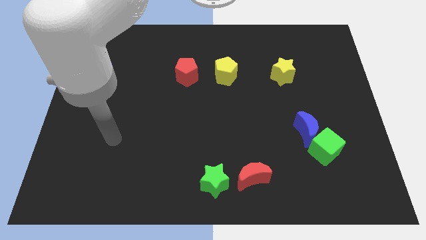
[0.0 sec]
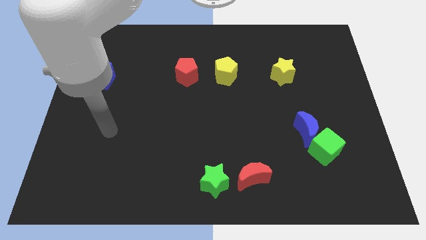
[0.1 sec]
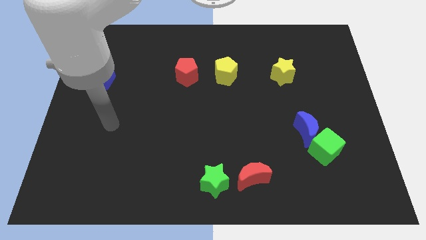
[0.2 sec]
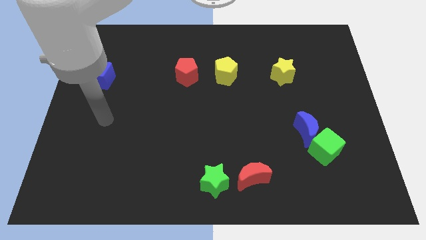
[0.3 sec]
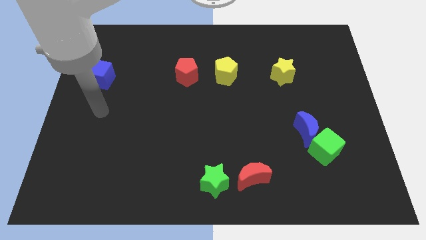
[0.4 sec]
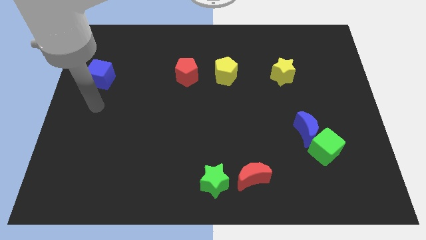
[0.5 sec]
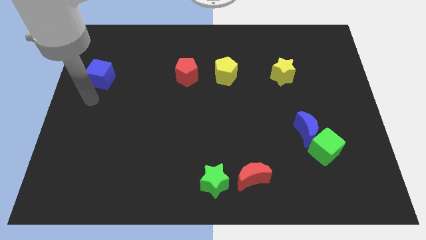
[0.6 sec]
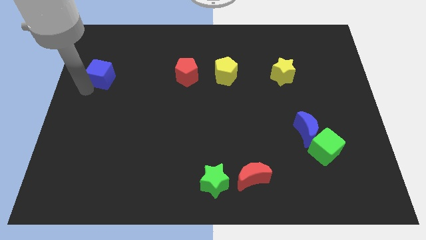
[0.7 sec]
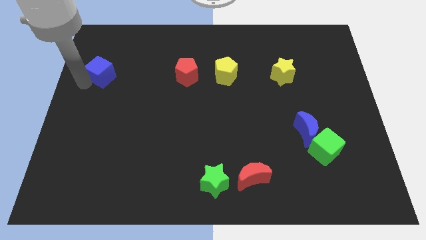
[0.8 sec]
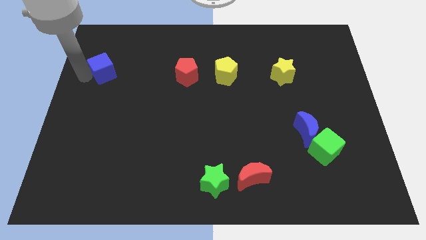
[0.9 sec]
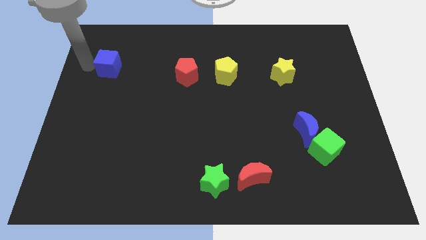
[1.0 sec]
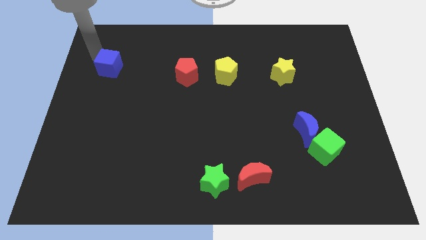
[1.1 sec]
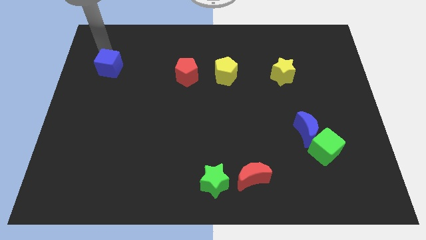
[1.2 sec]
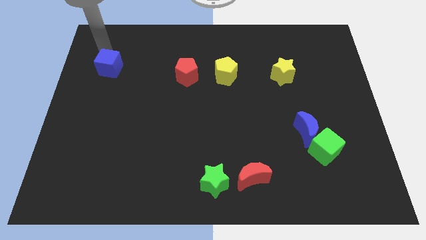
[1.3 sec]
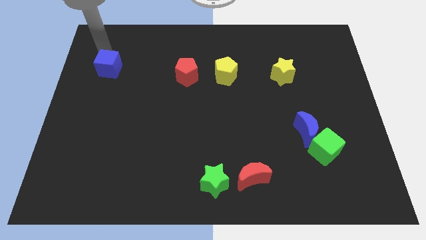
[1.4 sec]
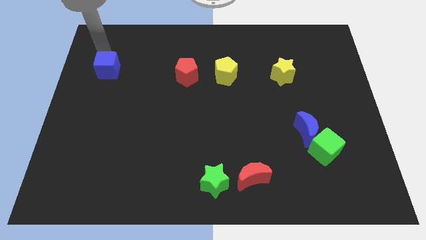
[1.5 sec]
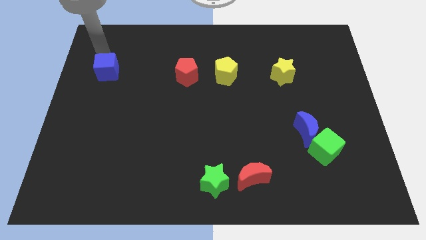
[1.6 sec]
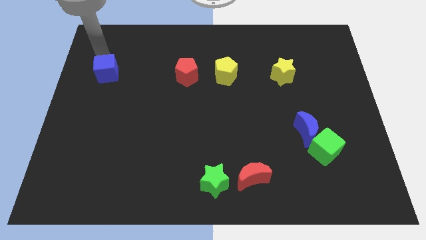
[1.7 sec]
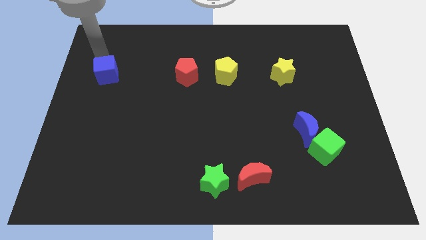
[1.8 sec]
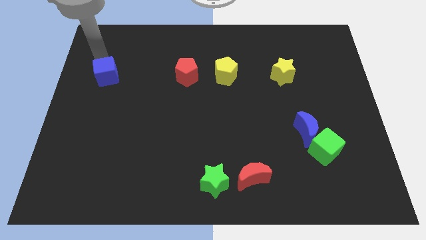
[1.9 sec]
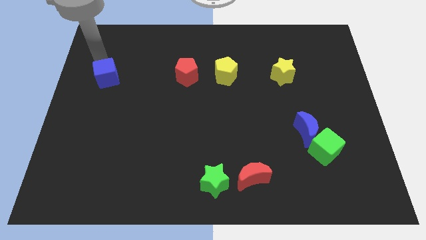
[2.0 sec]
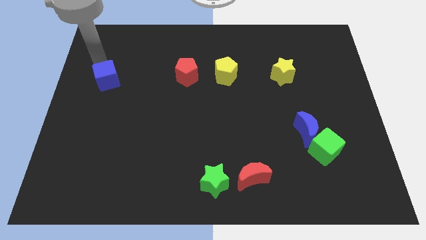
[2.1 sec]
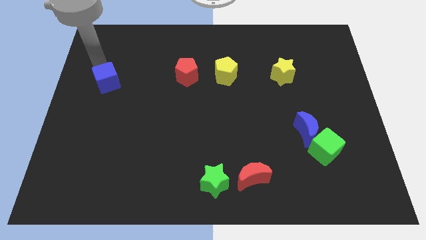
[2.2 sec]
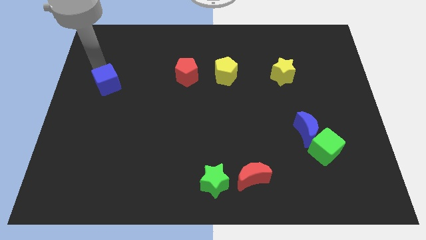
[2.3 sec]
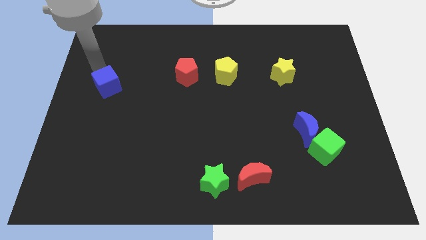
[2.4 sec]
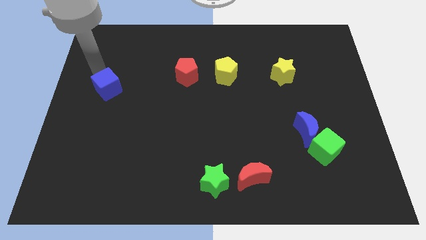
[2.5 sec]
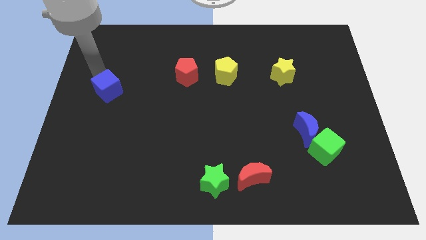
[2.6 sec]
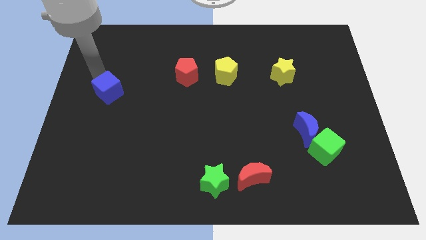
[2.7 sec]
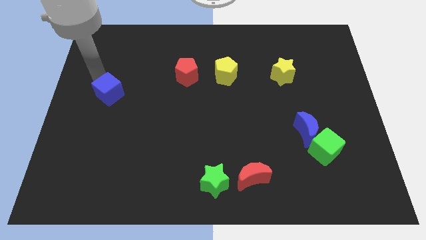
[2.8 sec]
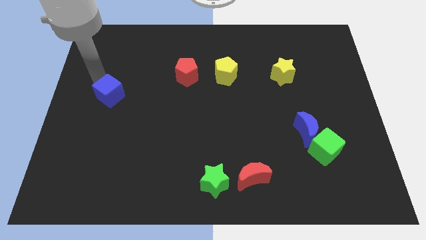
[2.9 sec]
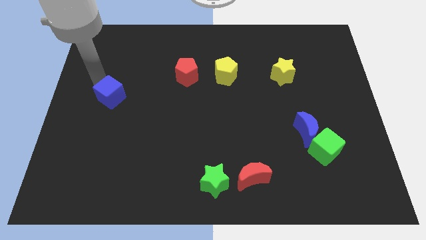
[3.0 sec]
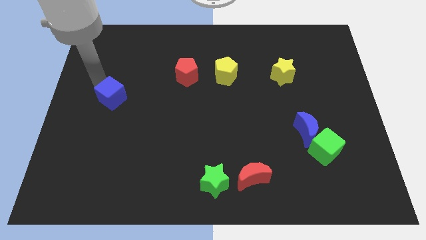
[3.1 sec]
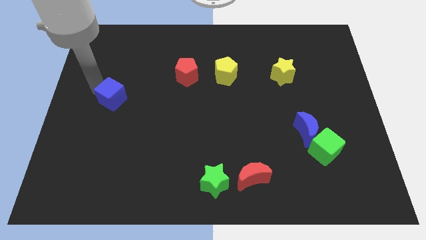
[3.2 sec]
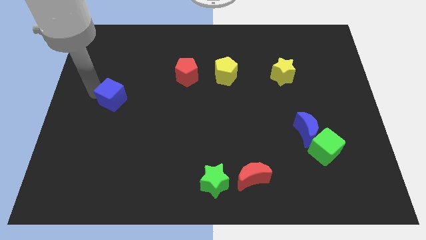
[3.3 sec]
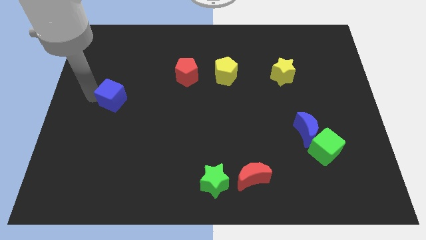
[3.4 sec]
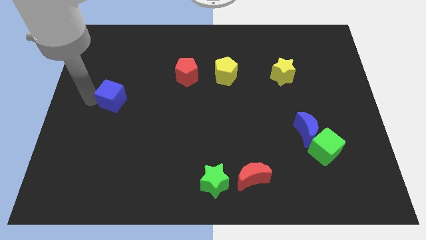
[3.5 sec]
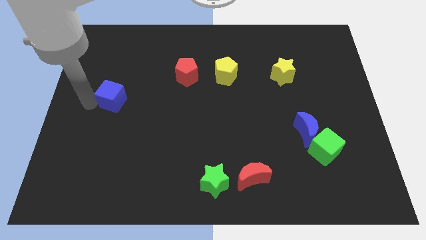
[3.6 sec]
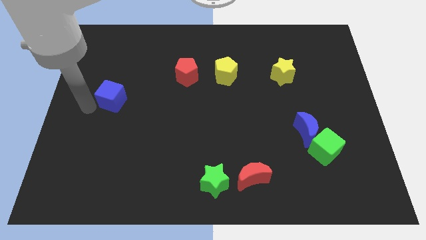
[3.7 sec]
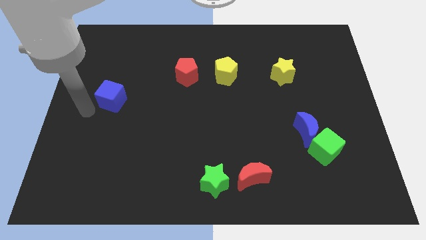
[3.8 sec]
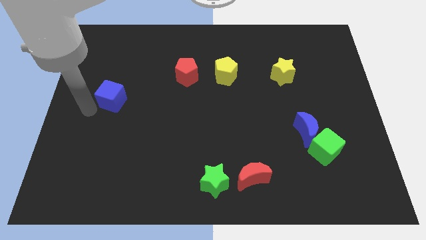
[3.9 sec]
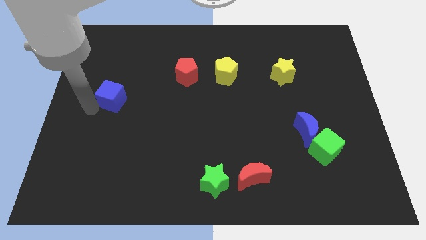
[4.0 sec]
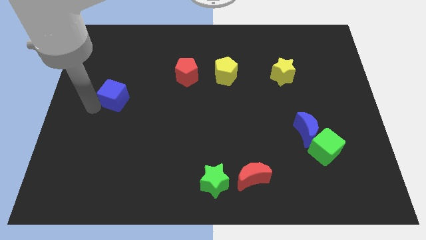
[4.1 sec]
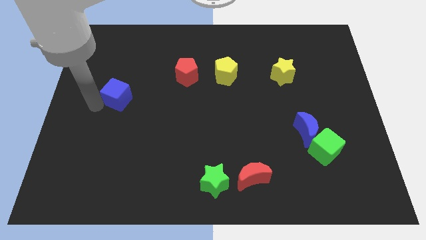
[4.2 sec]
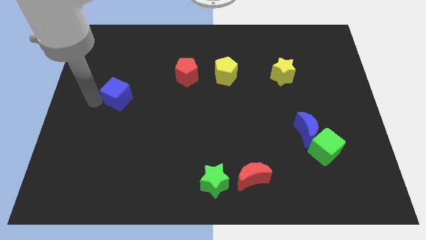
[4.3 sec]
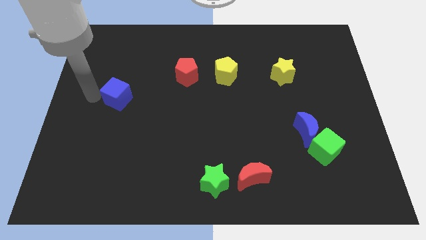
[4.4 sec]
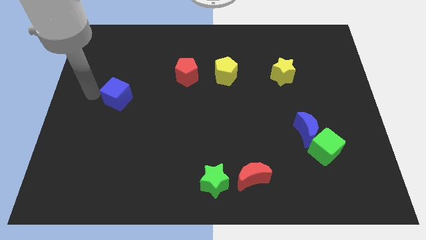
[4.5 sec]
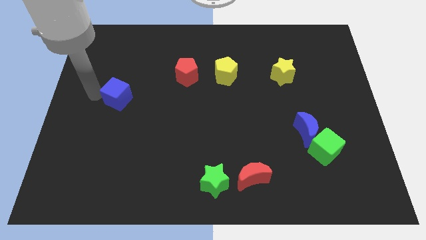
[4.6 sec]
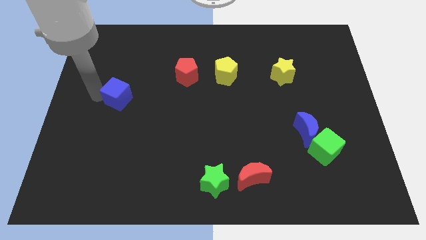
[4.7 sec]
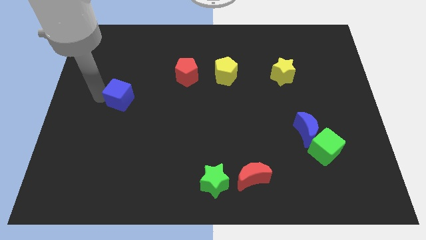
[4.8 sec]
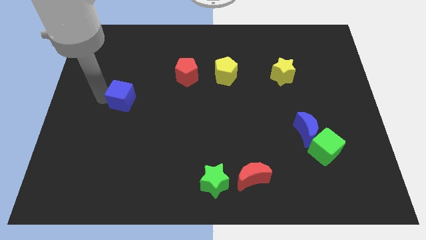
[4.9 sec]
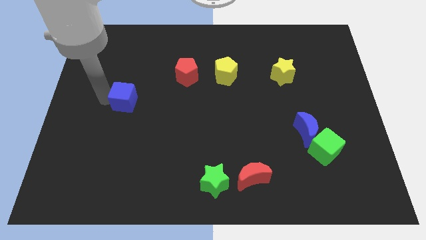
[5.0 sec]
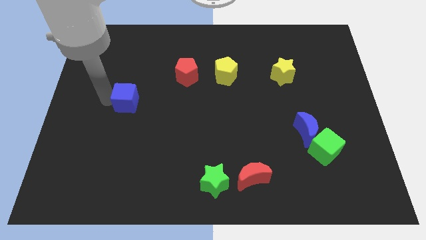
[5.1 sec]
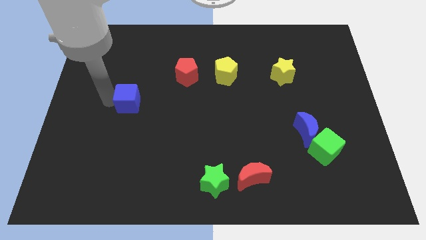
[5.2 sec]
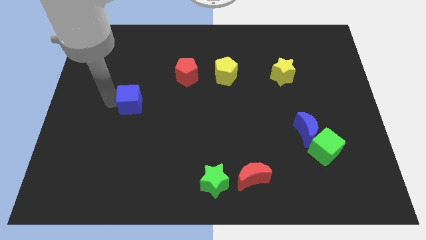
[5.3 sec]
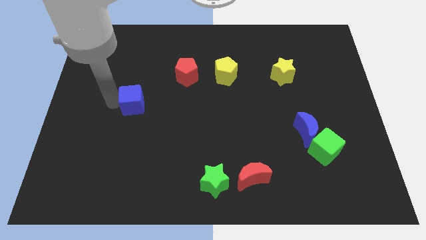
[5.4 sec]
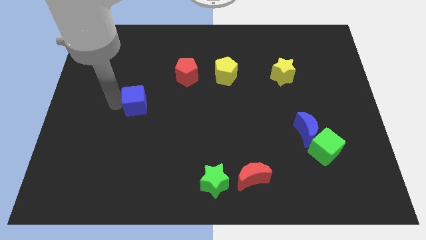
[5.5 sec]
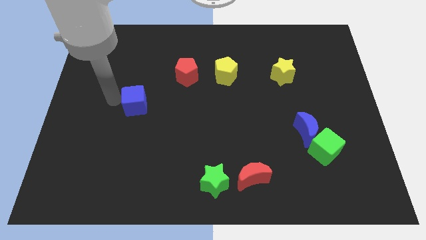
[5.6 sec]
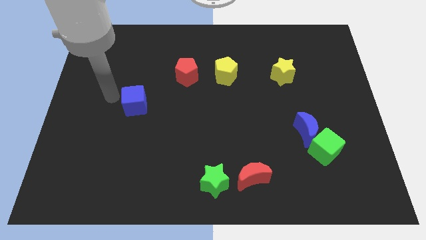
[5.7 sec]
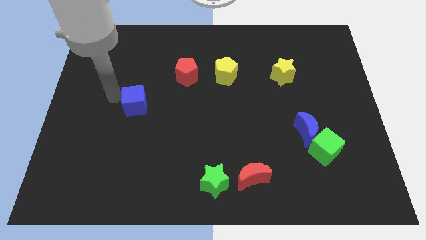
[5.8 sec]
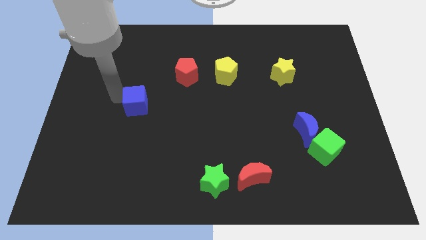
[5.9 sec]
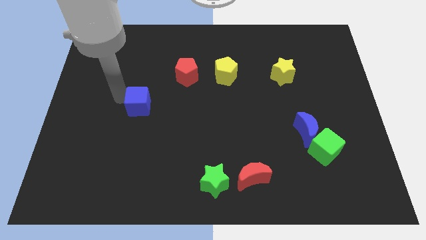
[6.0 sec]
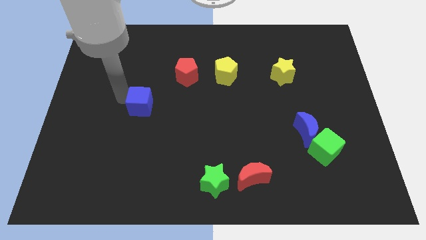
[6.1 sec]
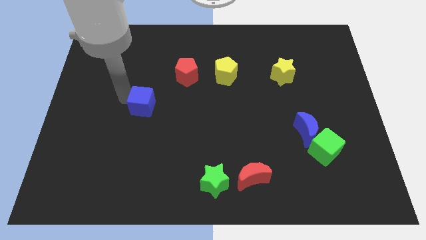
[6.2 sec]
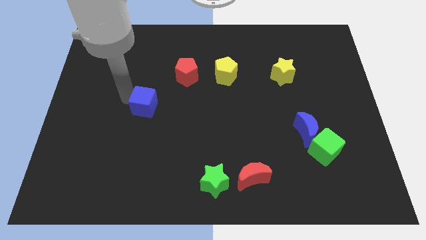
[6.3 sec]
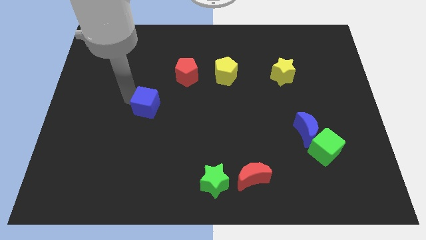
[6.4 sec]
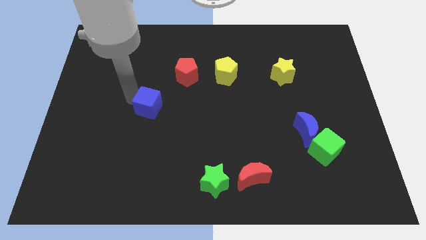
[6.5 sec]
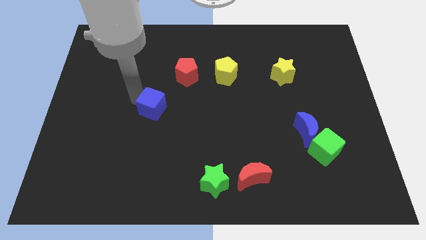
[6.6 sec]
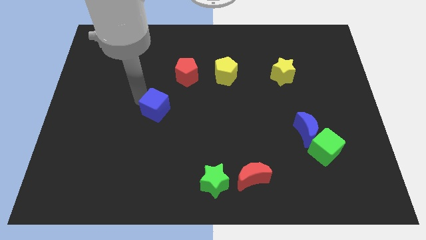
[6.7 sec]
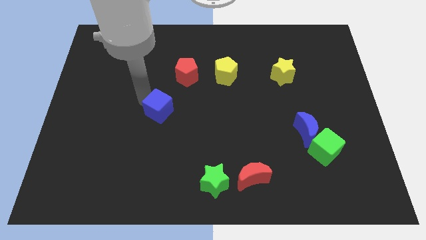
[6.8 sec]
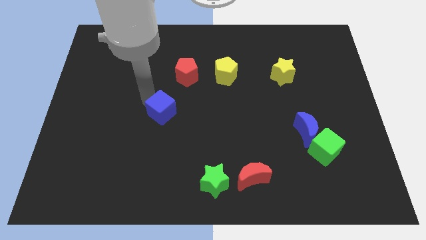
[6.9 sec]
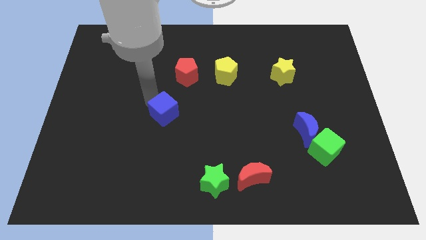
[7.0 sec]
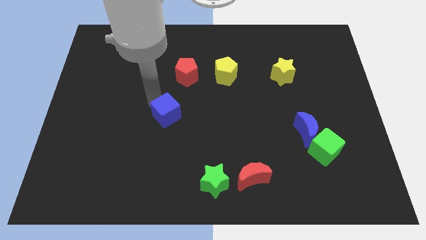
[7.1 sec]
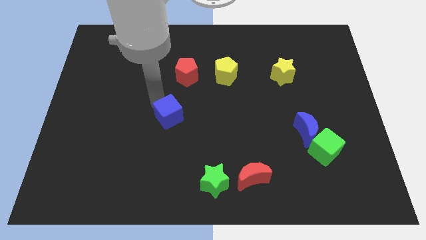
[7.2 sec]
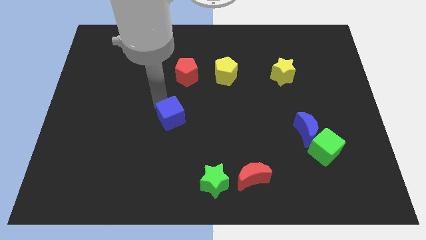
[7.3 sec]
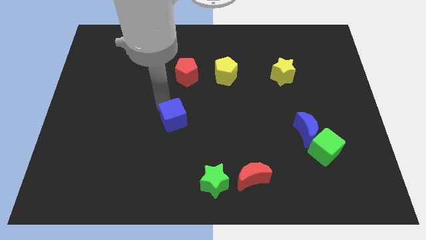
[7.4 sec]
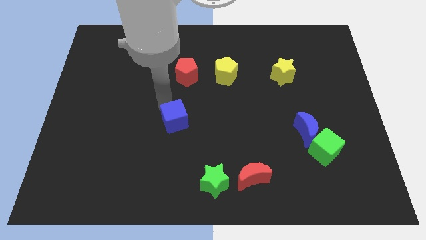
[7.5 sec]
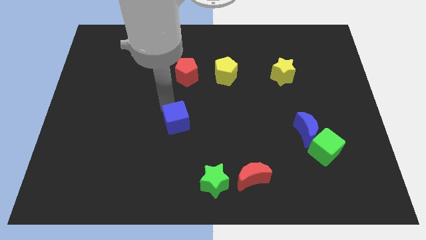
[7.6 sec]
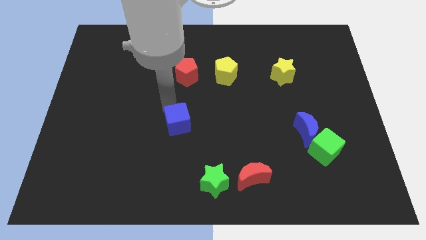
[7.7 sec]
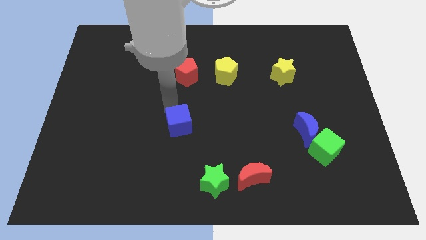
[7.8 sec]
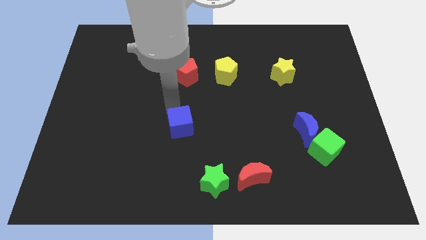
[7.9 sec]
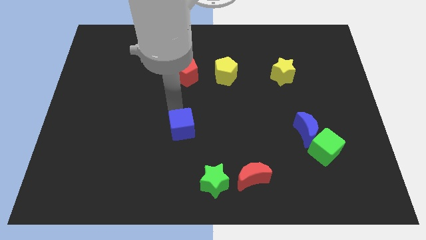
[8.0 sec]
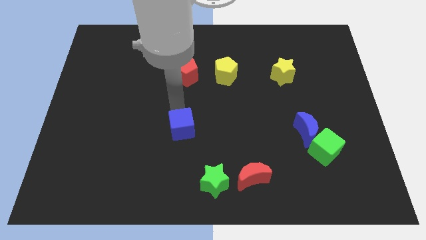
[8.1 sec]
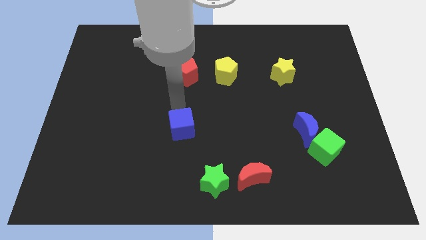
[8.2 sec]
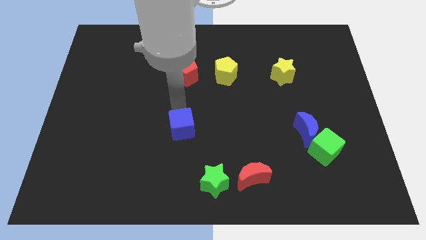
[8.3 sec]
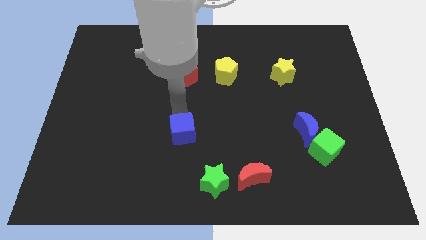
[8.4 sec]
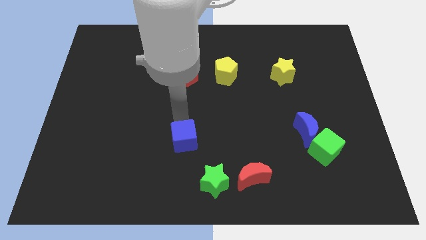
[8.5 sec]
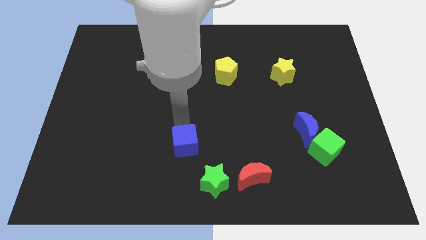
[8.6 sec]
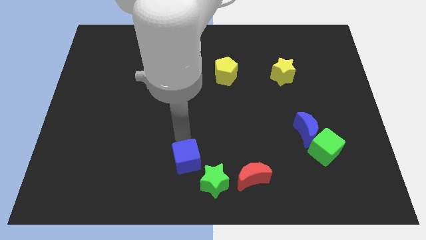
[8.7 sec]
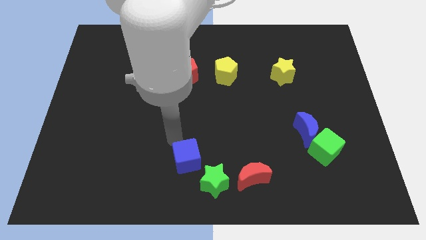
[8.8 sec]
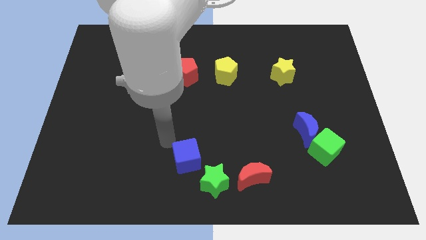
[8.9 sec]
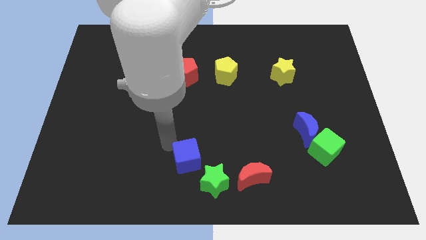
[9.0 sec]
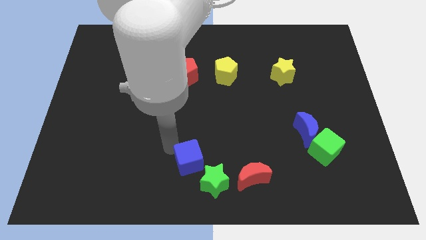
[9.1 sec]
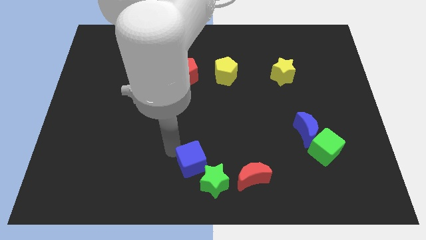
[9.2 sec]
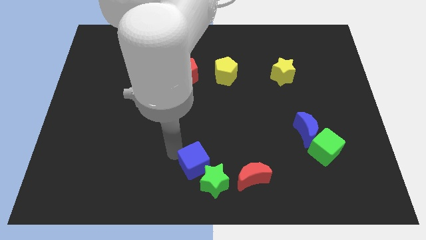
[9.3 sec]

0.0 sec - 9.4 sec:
move the blue cube towards the green star
